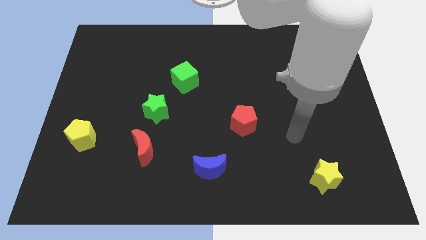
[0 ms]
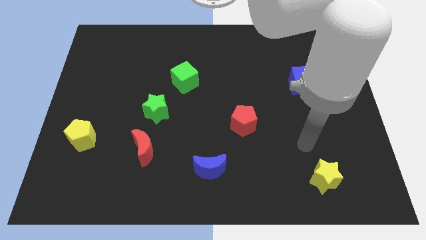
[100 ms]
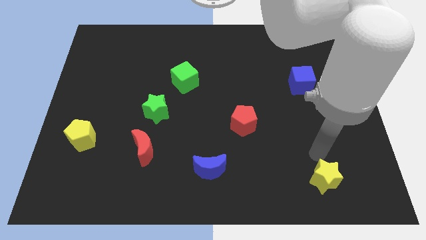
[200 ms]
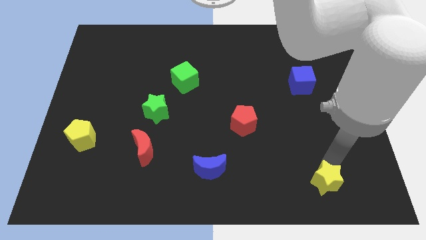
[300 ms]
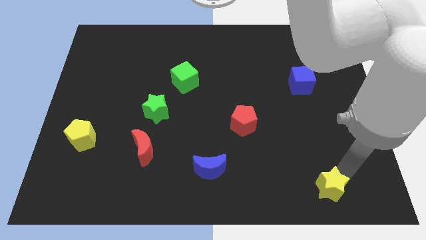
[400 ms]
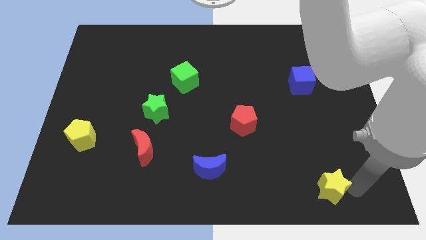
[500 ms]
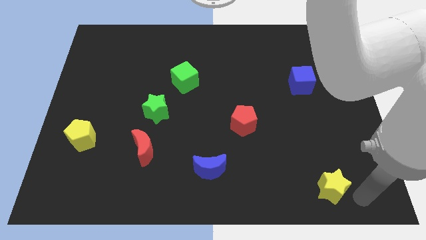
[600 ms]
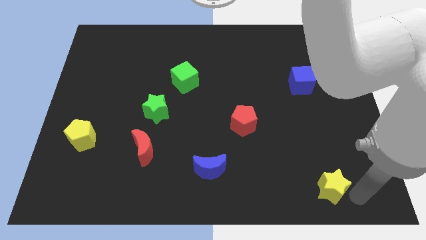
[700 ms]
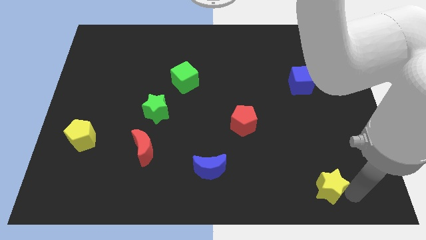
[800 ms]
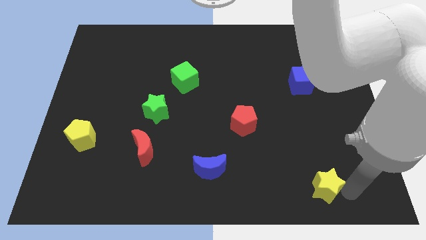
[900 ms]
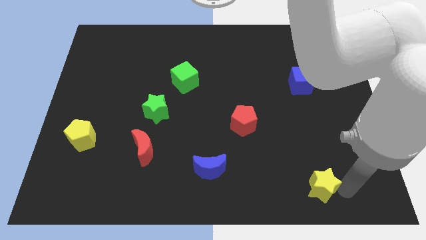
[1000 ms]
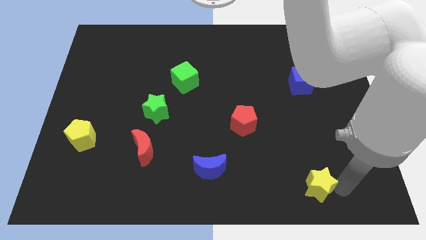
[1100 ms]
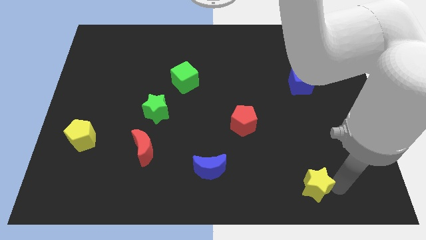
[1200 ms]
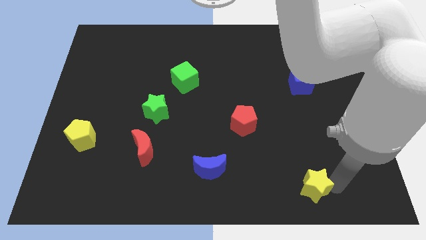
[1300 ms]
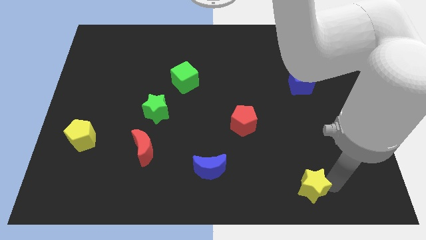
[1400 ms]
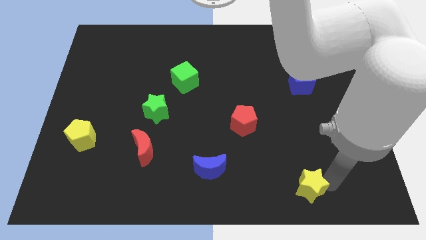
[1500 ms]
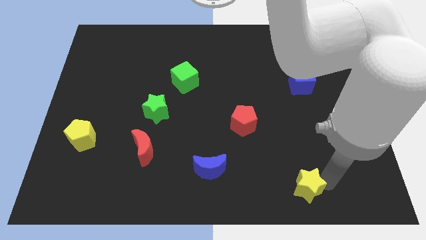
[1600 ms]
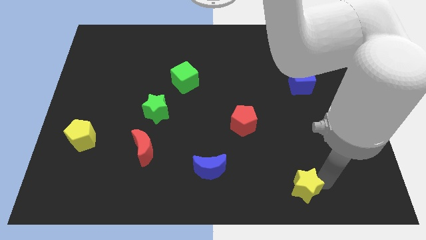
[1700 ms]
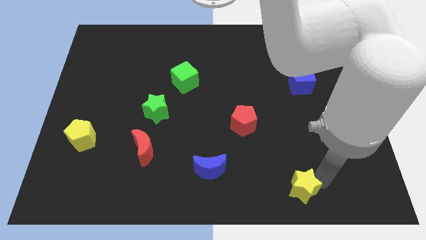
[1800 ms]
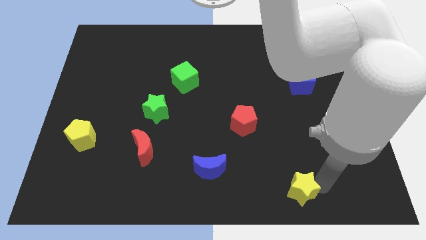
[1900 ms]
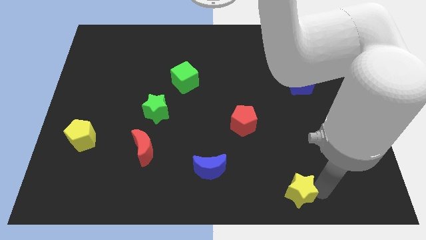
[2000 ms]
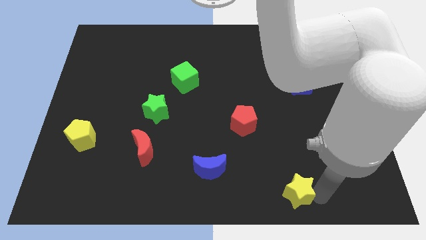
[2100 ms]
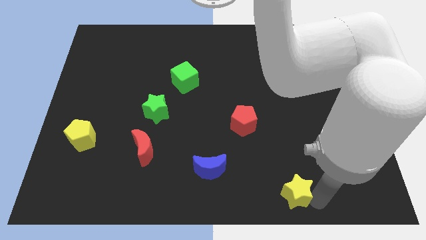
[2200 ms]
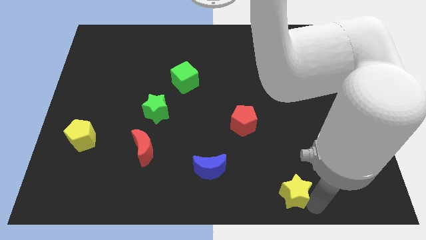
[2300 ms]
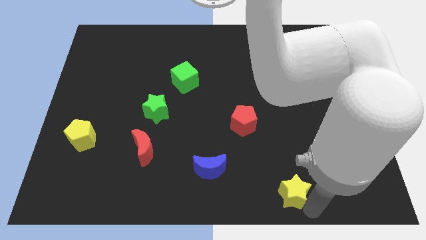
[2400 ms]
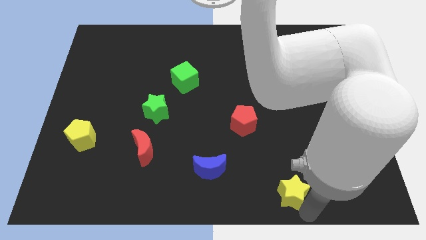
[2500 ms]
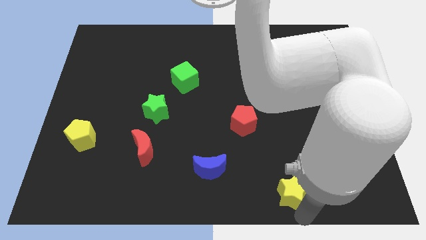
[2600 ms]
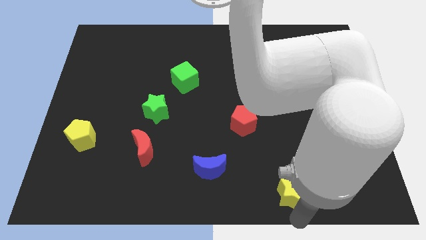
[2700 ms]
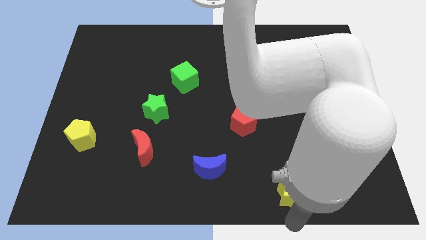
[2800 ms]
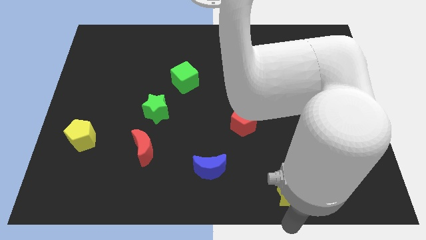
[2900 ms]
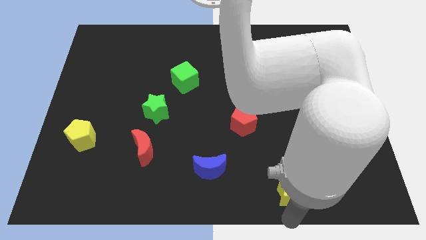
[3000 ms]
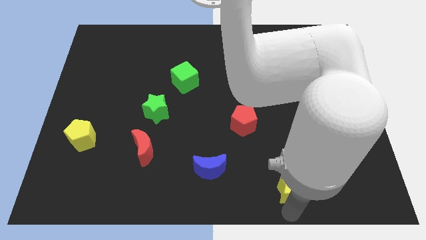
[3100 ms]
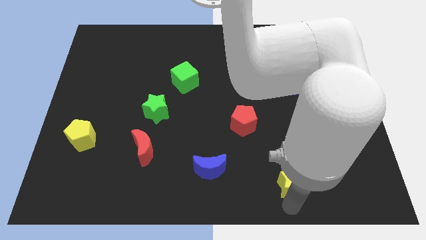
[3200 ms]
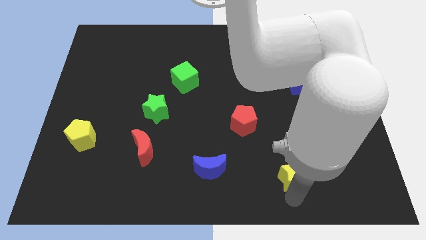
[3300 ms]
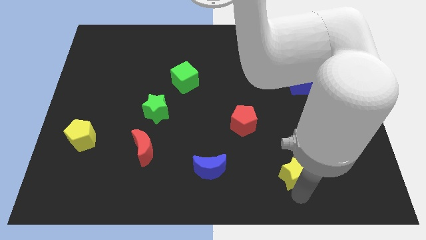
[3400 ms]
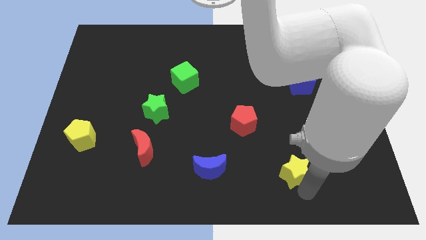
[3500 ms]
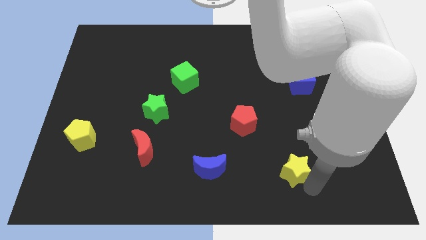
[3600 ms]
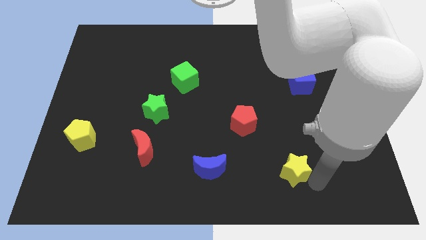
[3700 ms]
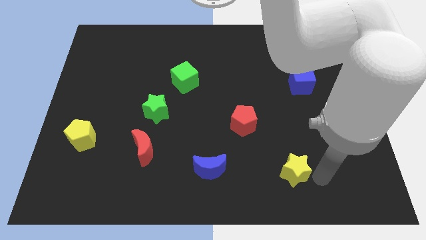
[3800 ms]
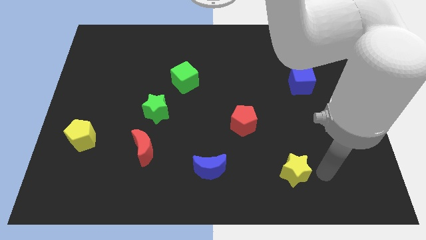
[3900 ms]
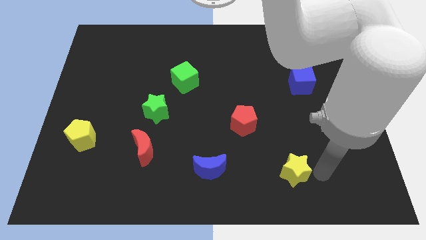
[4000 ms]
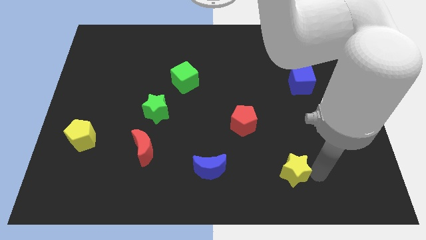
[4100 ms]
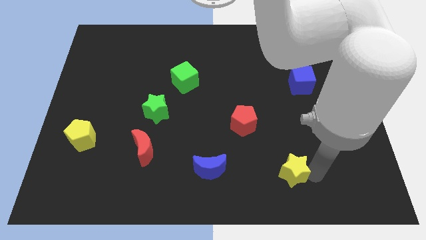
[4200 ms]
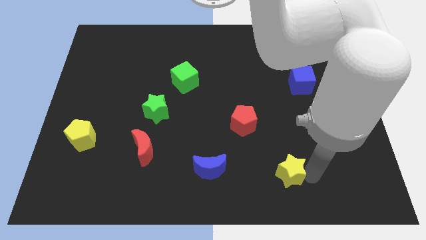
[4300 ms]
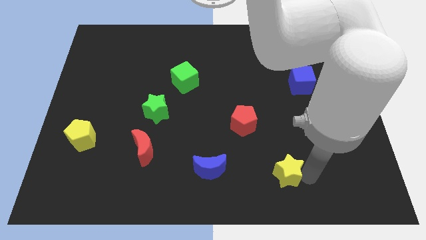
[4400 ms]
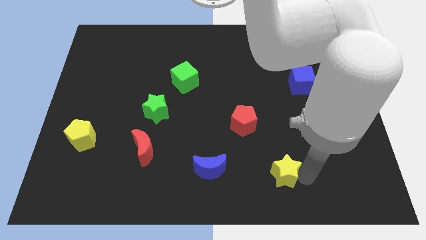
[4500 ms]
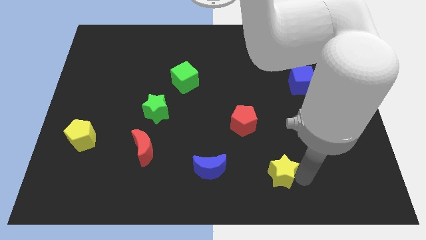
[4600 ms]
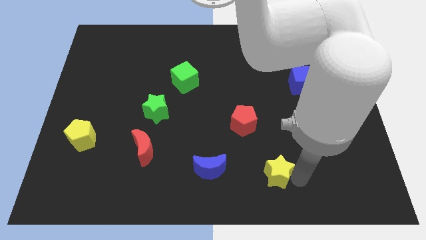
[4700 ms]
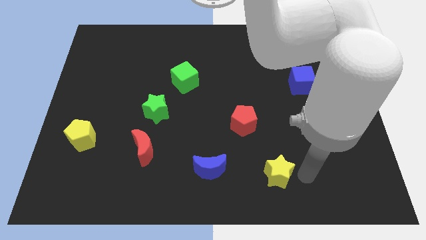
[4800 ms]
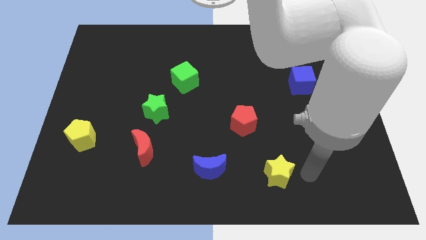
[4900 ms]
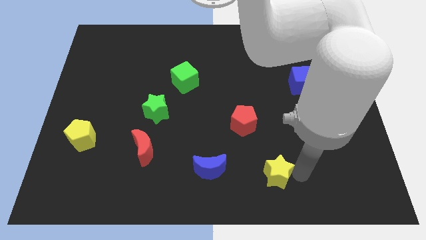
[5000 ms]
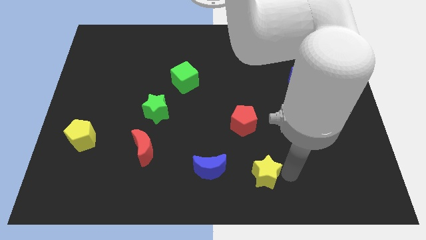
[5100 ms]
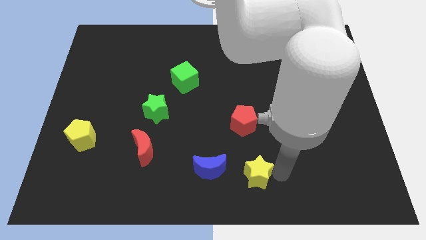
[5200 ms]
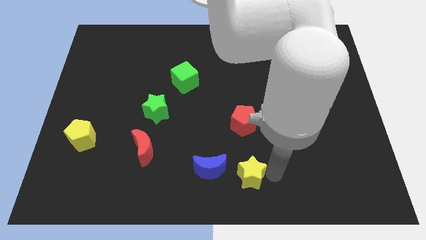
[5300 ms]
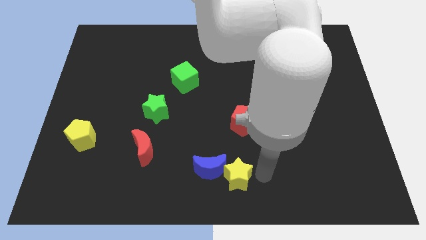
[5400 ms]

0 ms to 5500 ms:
push the yellow star close to the blue moon
